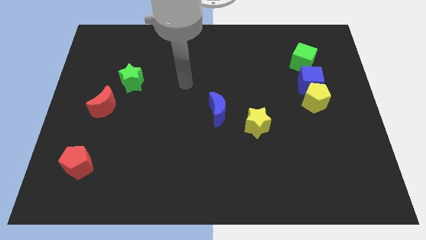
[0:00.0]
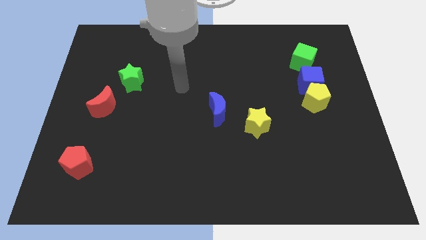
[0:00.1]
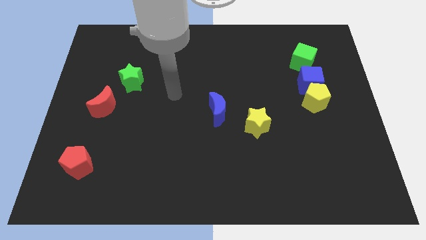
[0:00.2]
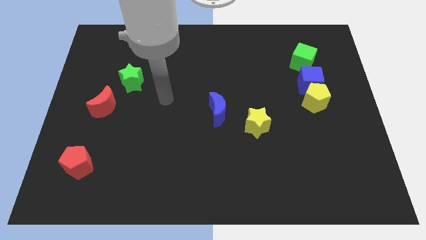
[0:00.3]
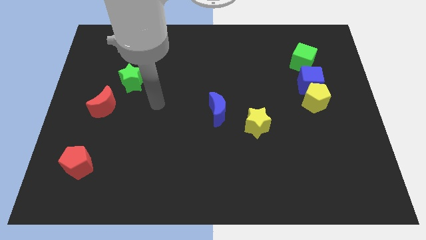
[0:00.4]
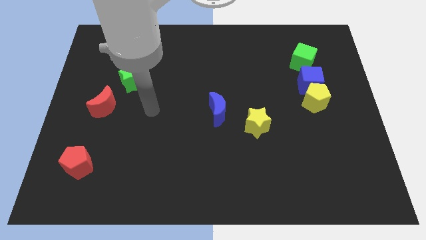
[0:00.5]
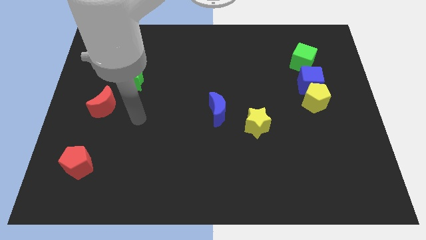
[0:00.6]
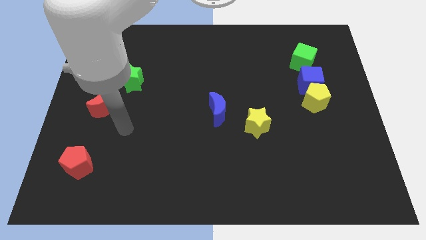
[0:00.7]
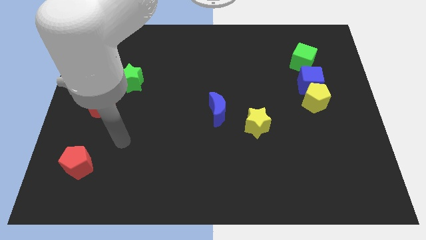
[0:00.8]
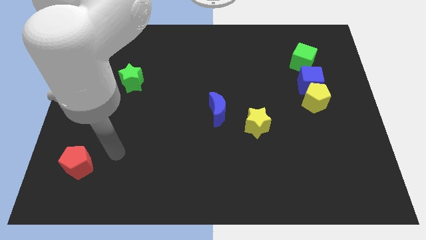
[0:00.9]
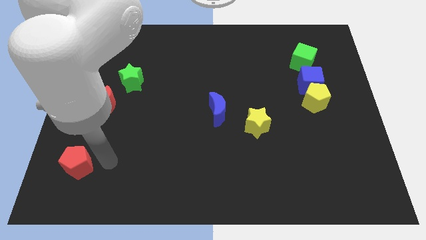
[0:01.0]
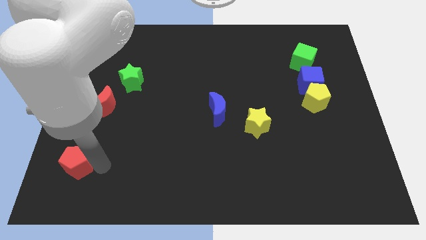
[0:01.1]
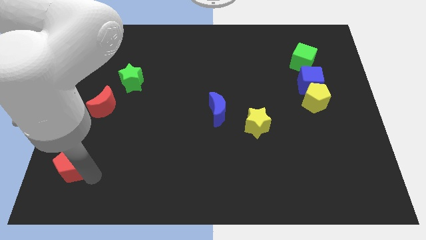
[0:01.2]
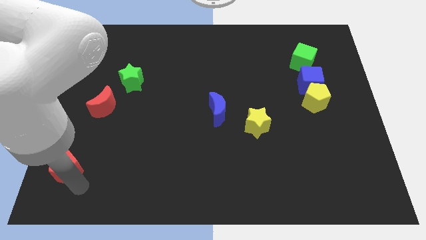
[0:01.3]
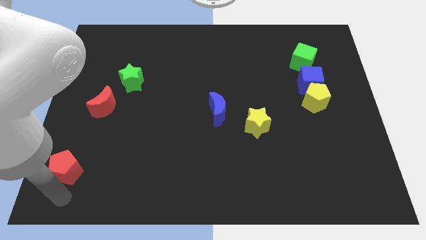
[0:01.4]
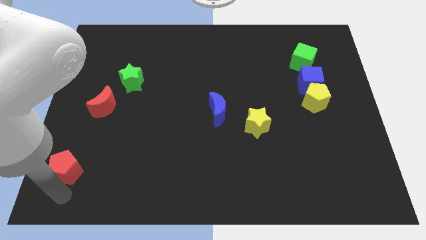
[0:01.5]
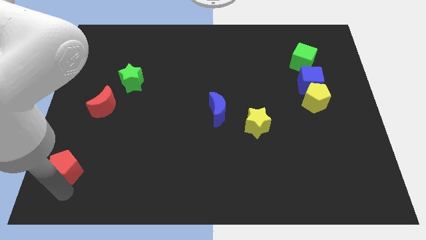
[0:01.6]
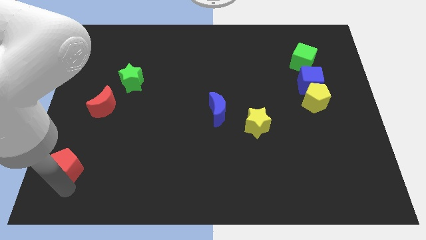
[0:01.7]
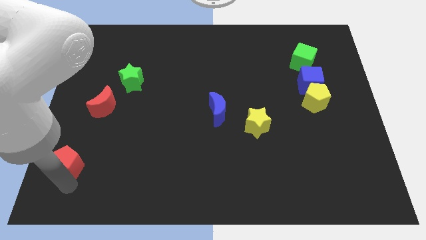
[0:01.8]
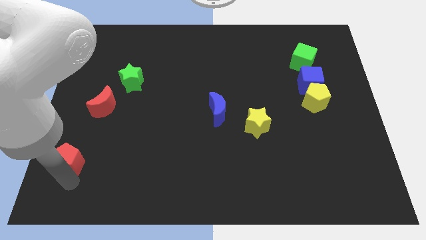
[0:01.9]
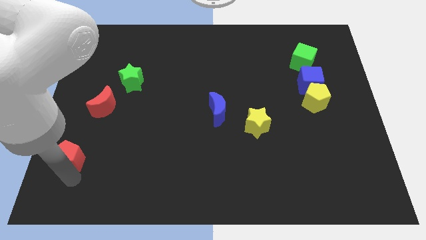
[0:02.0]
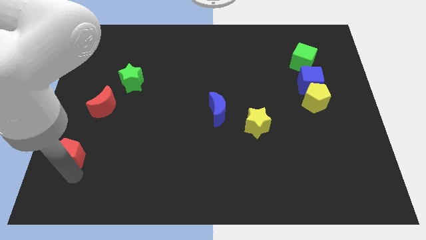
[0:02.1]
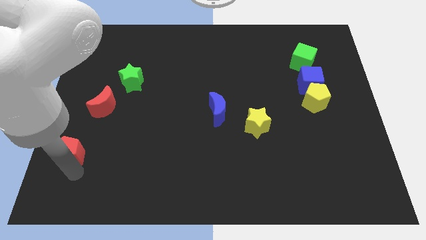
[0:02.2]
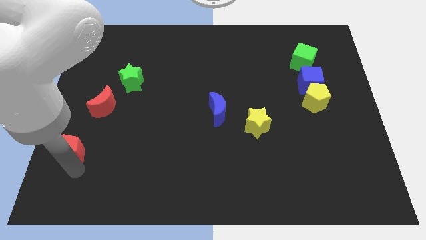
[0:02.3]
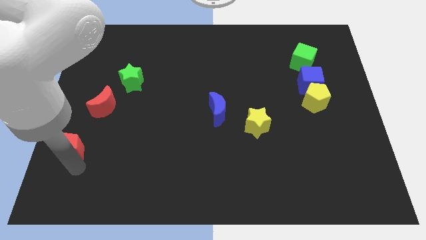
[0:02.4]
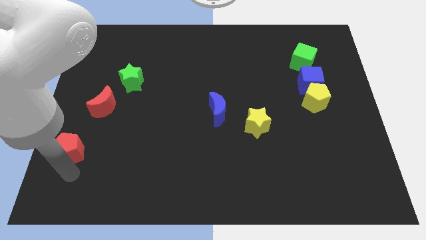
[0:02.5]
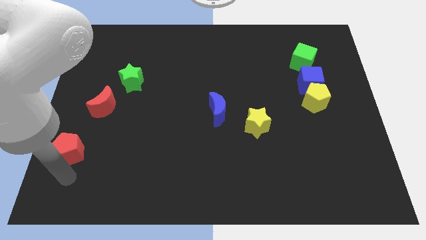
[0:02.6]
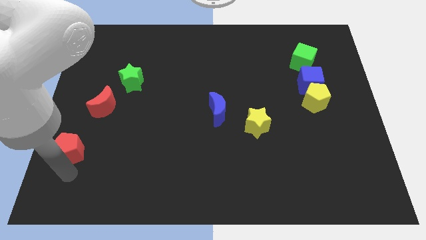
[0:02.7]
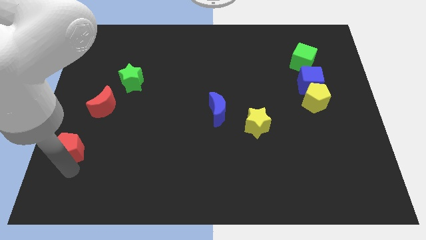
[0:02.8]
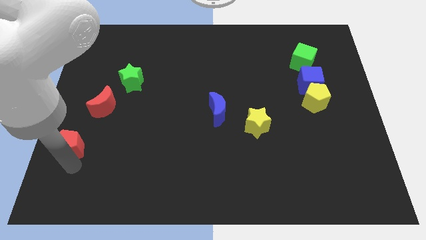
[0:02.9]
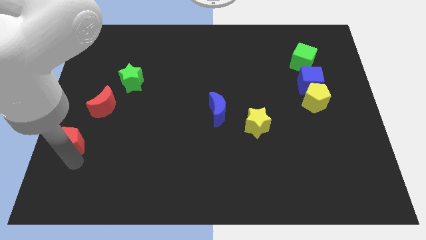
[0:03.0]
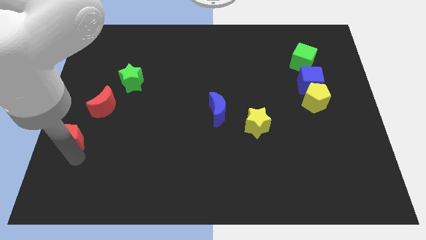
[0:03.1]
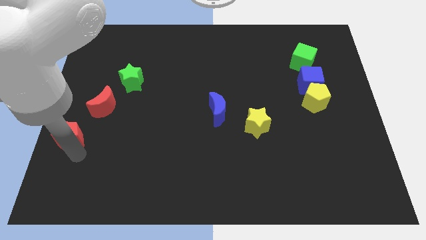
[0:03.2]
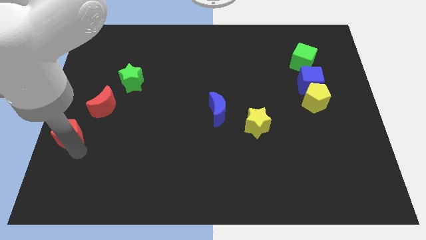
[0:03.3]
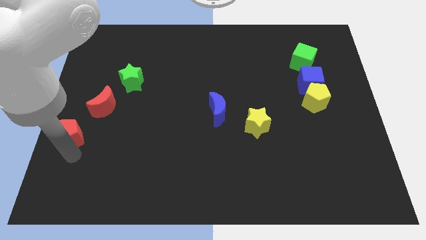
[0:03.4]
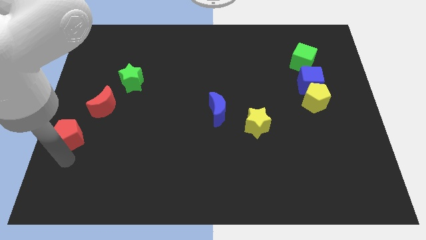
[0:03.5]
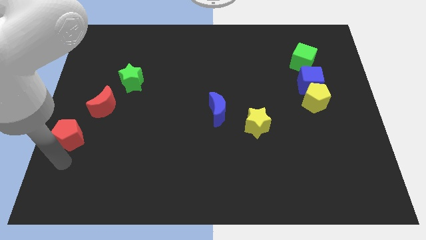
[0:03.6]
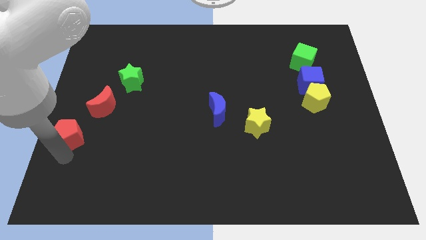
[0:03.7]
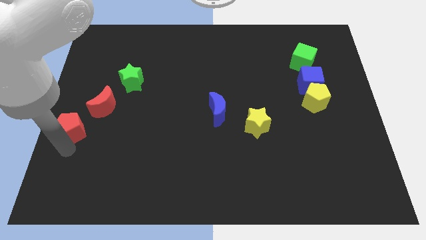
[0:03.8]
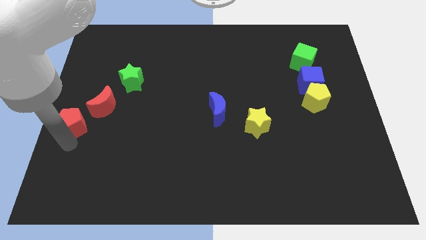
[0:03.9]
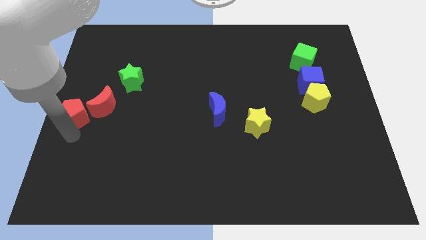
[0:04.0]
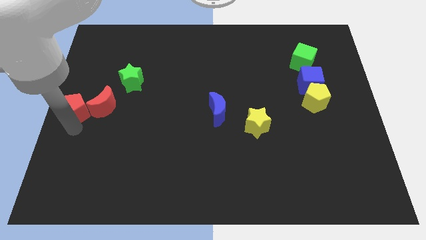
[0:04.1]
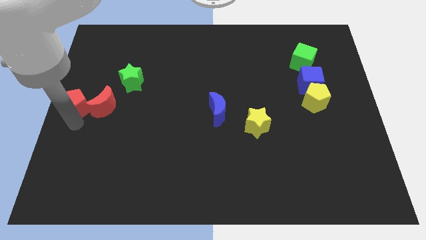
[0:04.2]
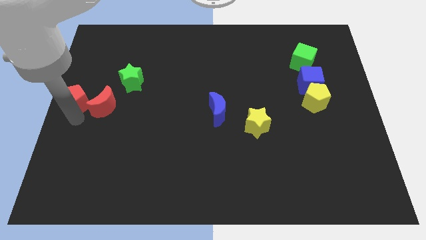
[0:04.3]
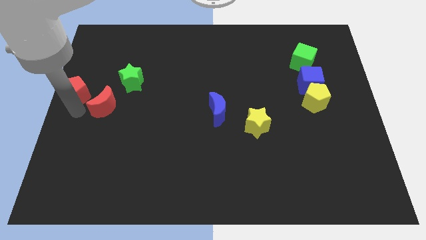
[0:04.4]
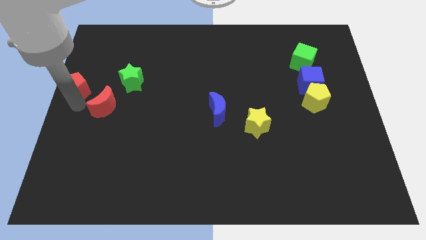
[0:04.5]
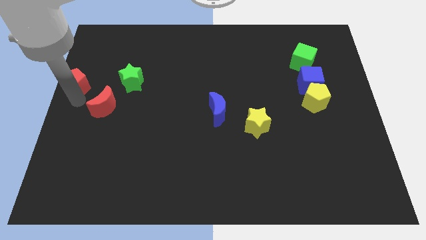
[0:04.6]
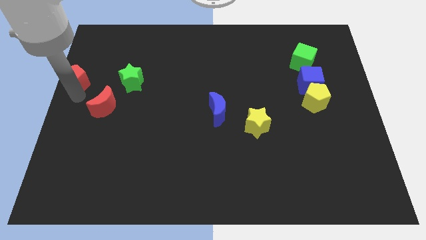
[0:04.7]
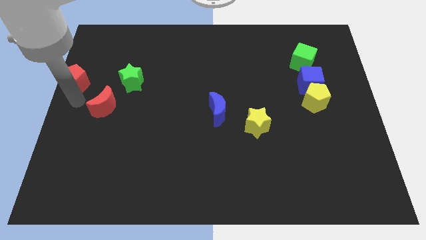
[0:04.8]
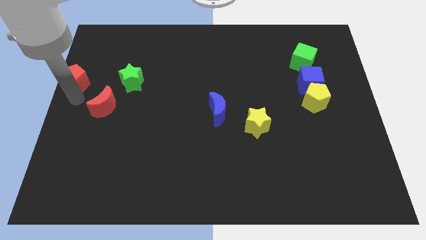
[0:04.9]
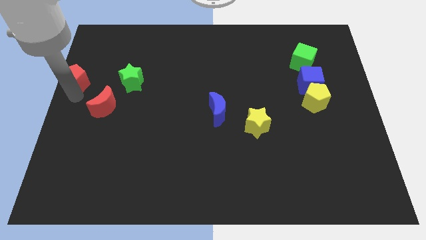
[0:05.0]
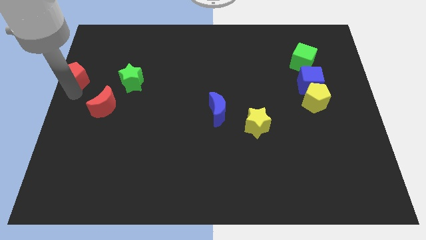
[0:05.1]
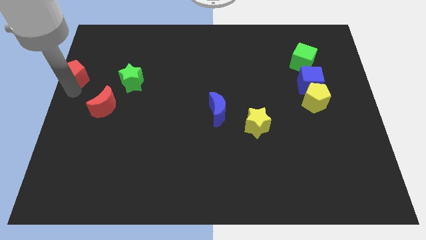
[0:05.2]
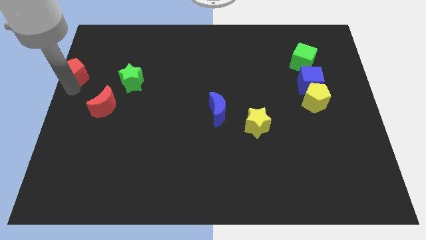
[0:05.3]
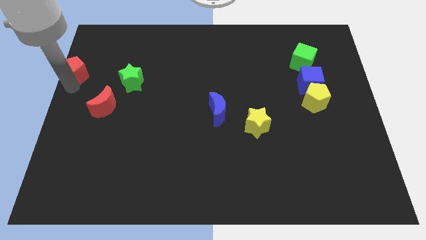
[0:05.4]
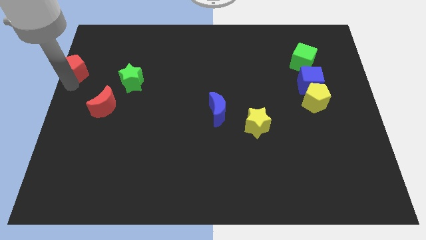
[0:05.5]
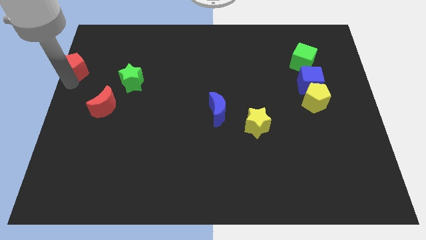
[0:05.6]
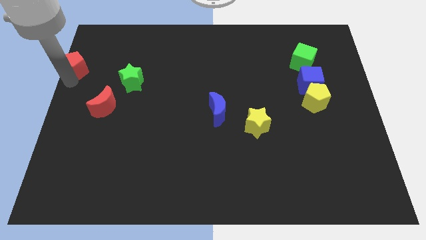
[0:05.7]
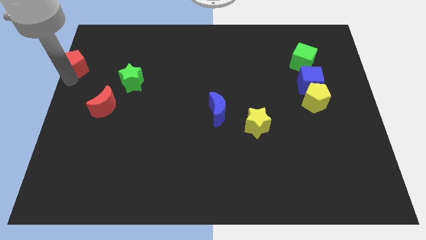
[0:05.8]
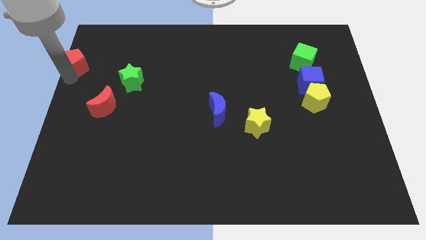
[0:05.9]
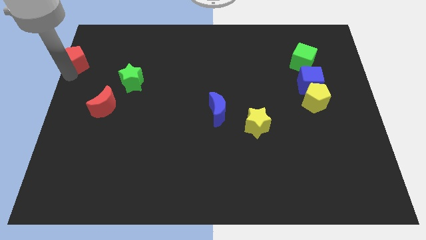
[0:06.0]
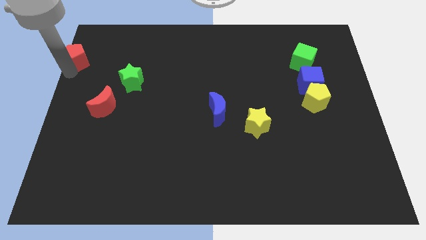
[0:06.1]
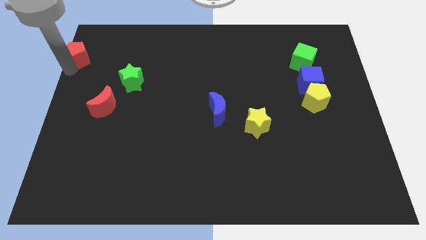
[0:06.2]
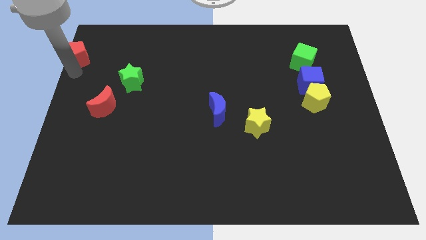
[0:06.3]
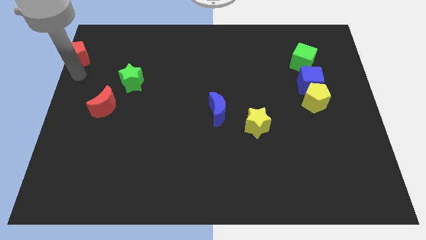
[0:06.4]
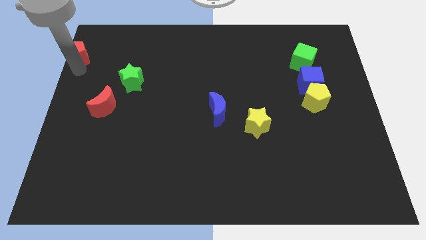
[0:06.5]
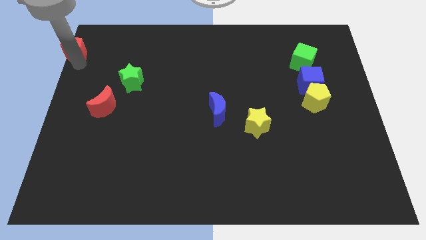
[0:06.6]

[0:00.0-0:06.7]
put the red pentagon to the upper left corner

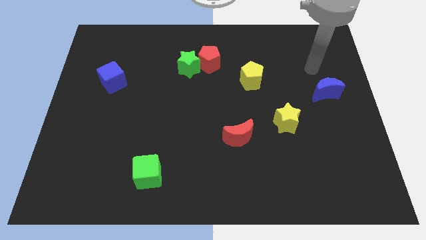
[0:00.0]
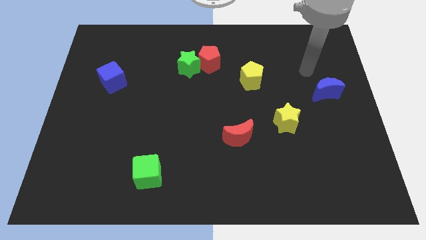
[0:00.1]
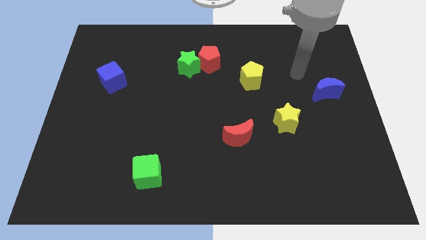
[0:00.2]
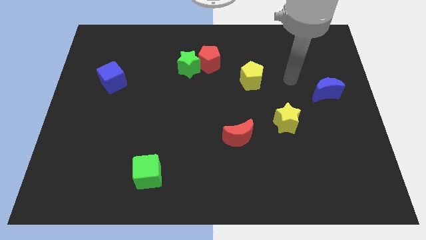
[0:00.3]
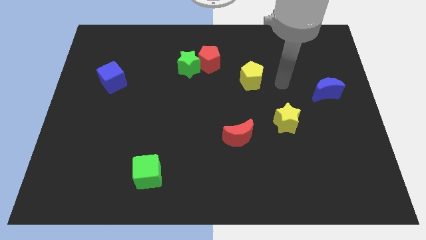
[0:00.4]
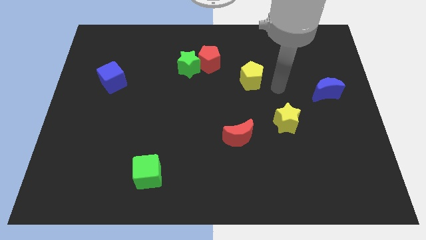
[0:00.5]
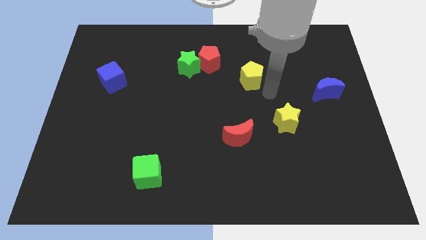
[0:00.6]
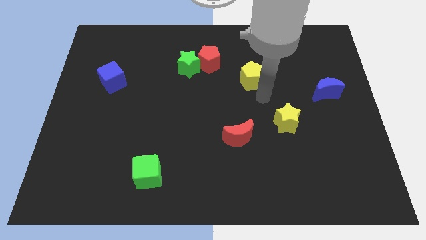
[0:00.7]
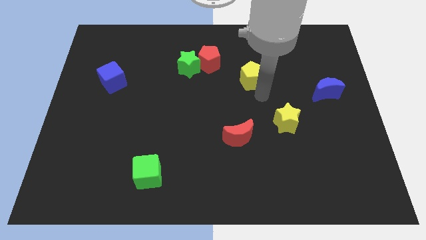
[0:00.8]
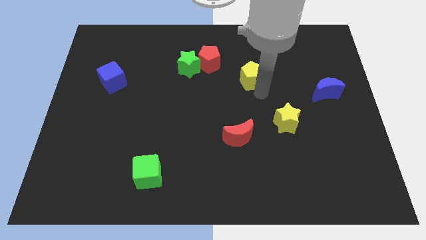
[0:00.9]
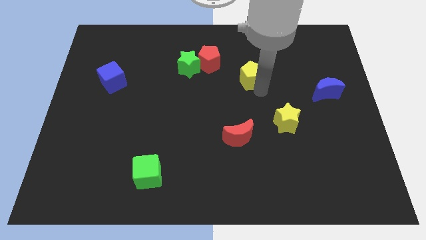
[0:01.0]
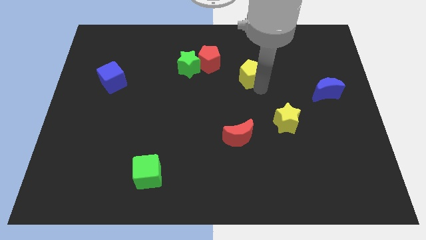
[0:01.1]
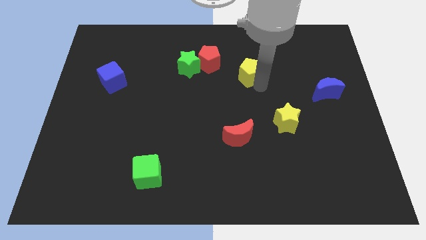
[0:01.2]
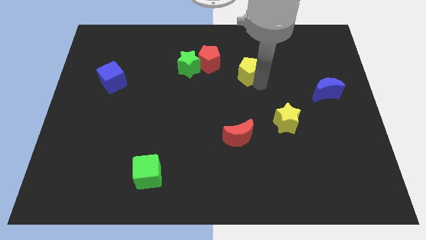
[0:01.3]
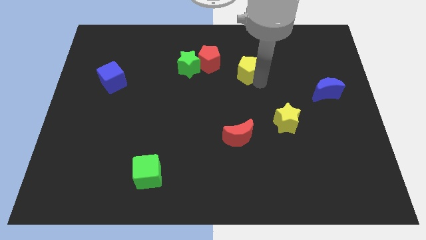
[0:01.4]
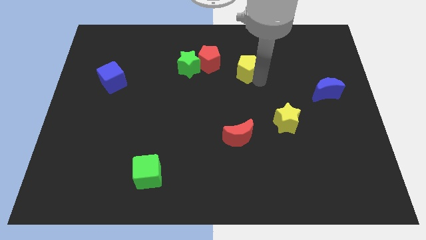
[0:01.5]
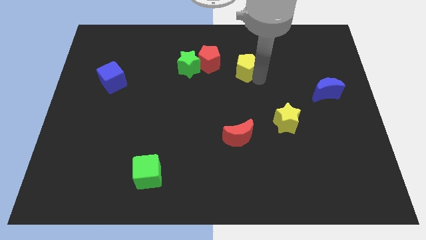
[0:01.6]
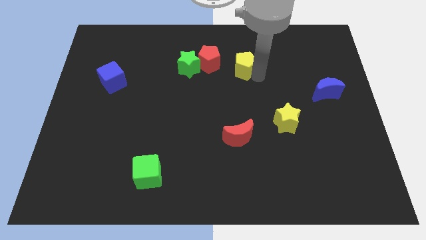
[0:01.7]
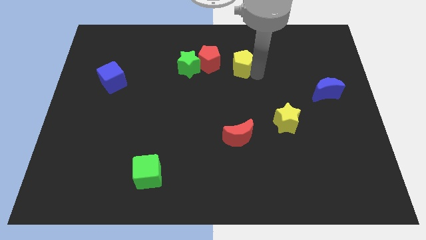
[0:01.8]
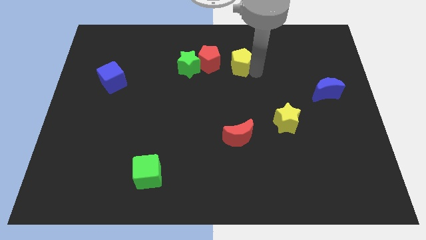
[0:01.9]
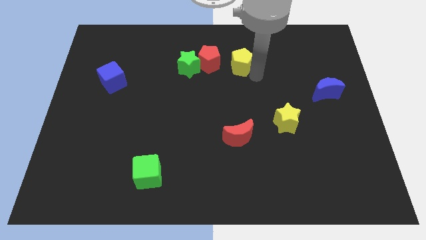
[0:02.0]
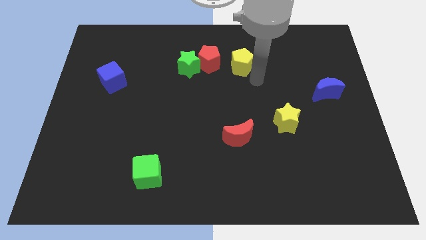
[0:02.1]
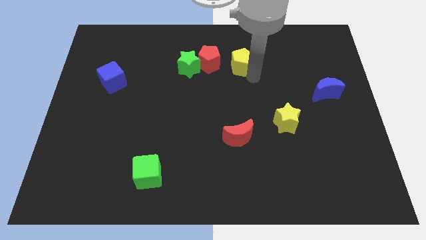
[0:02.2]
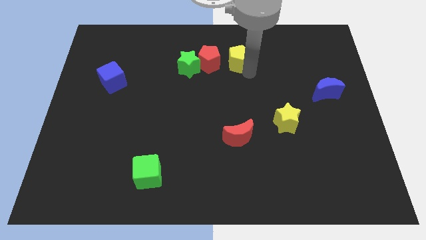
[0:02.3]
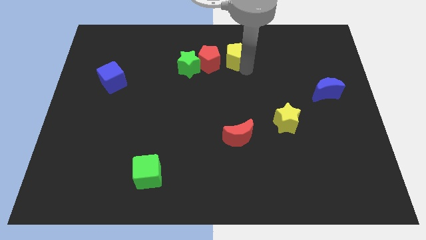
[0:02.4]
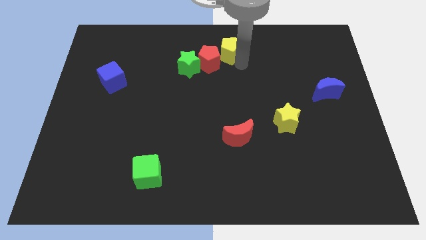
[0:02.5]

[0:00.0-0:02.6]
move the yellow pentagon to the towards your base
